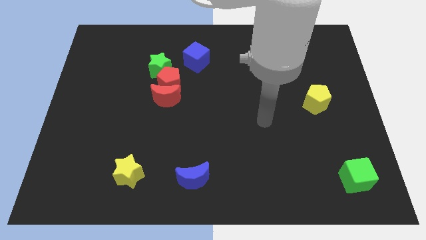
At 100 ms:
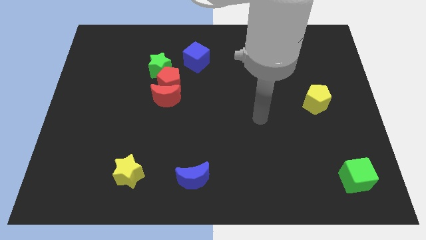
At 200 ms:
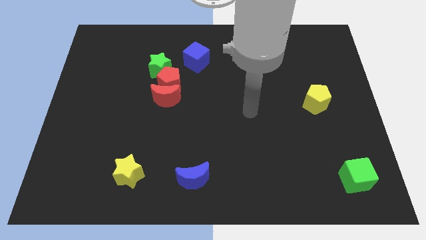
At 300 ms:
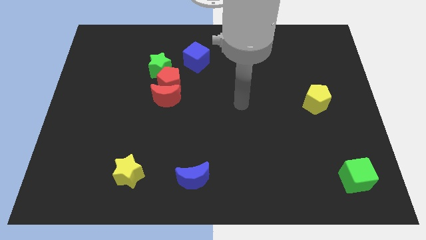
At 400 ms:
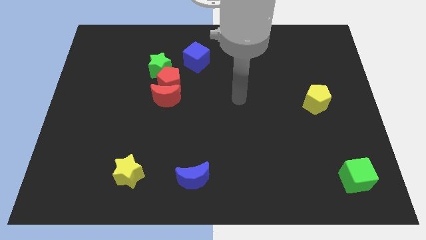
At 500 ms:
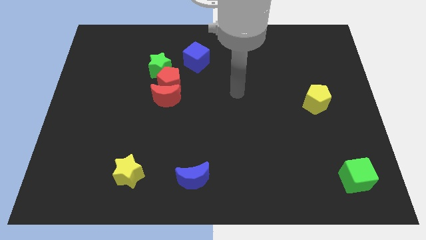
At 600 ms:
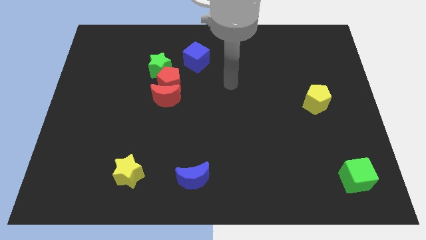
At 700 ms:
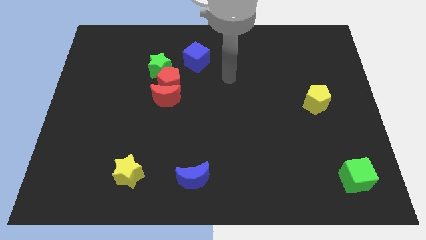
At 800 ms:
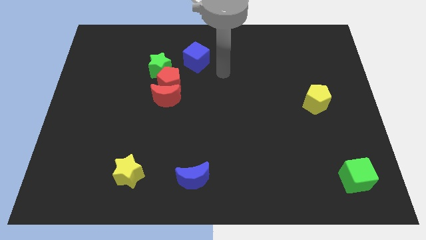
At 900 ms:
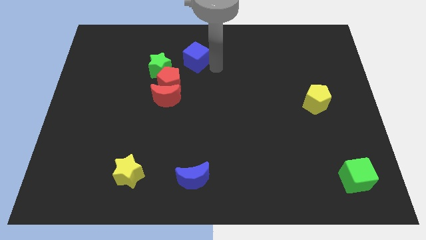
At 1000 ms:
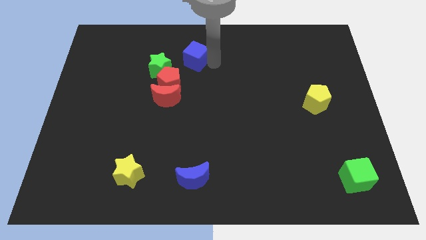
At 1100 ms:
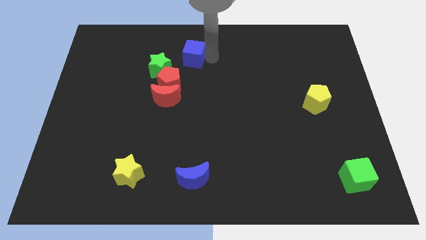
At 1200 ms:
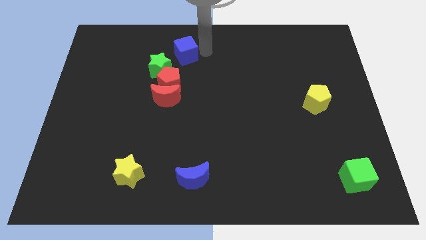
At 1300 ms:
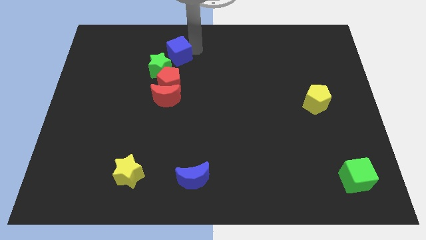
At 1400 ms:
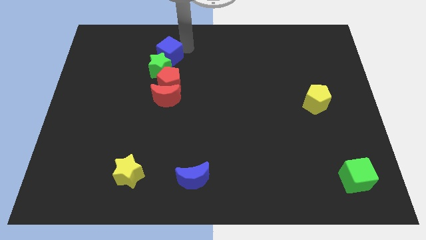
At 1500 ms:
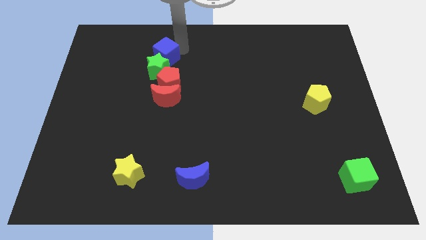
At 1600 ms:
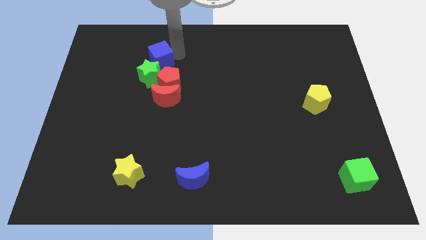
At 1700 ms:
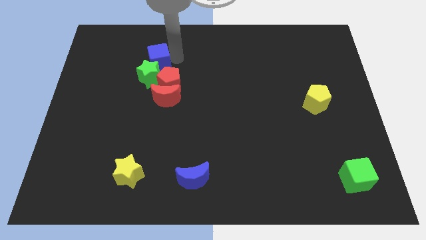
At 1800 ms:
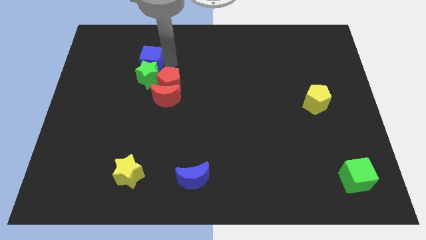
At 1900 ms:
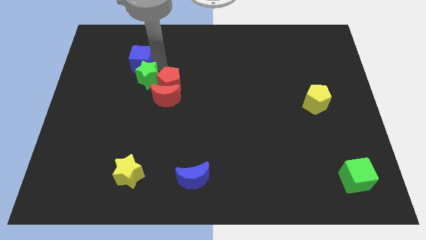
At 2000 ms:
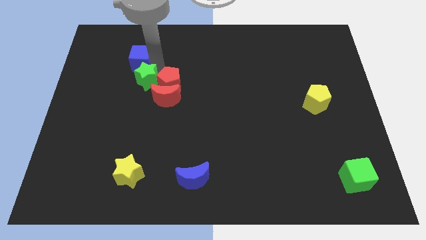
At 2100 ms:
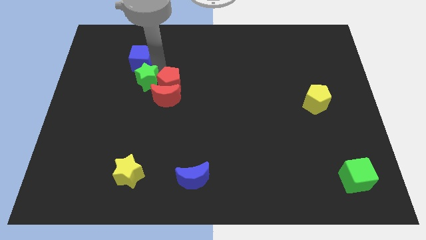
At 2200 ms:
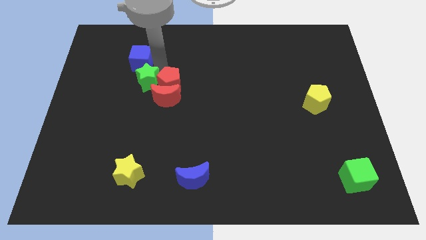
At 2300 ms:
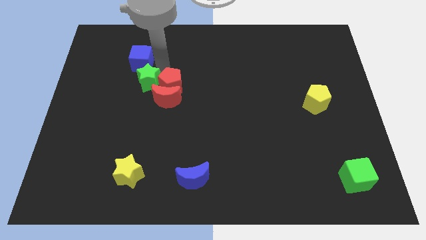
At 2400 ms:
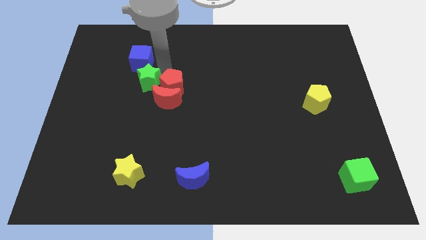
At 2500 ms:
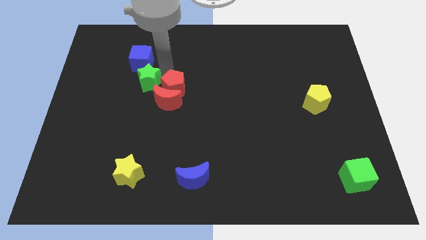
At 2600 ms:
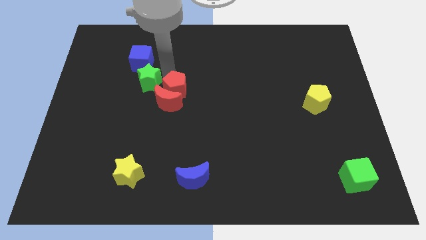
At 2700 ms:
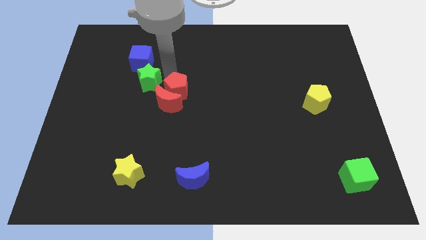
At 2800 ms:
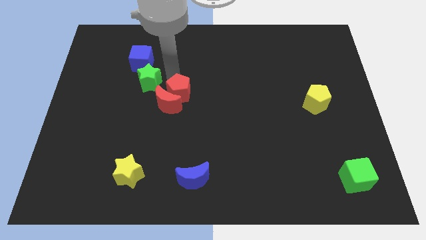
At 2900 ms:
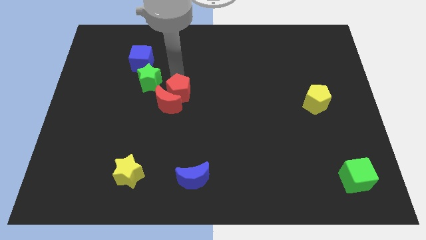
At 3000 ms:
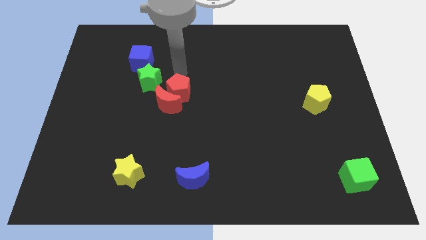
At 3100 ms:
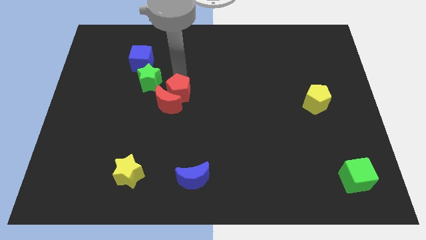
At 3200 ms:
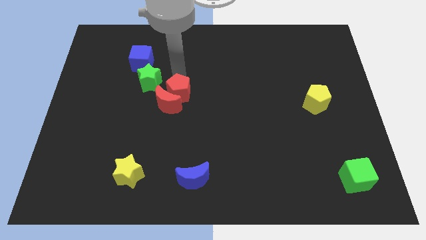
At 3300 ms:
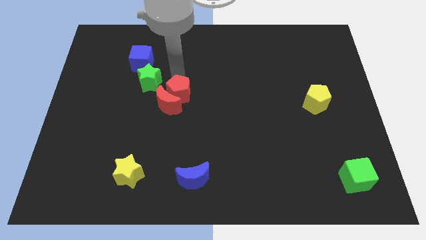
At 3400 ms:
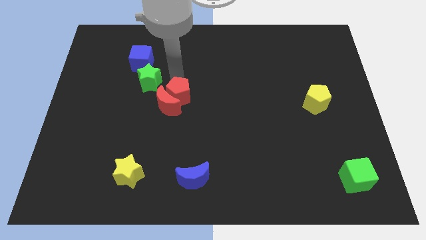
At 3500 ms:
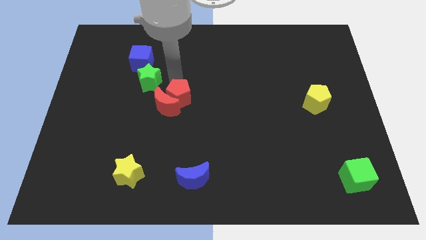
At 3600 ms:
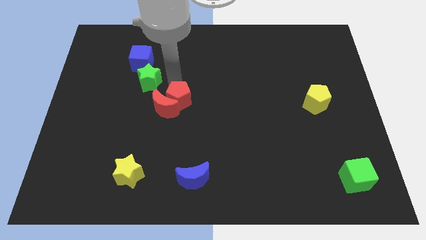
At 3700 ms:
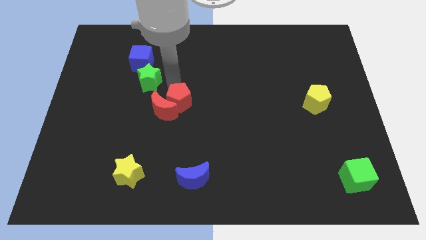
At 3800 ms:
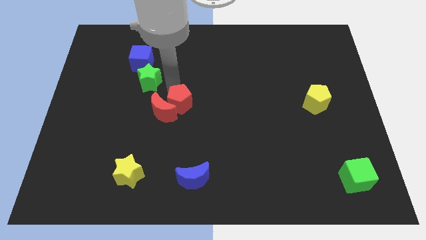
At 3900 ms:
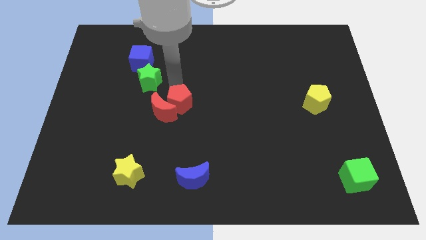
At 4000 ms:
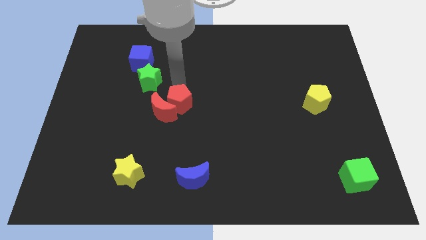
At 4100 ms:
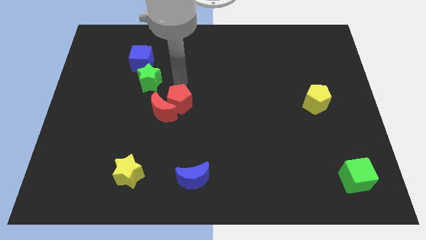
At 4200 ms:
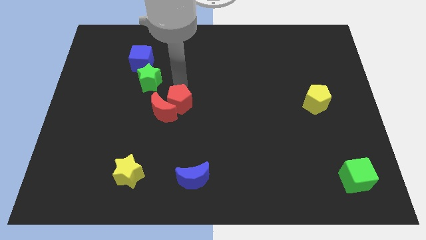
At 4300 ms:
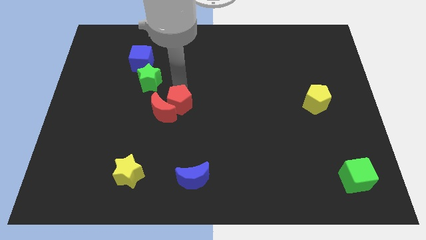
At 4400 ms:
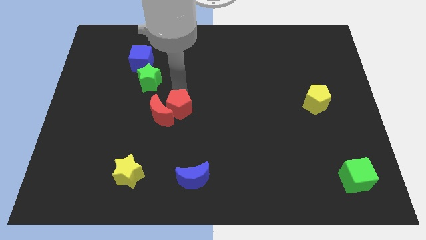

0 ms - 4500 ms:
pull the red pentagon apart from the group

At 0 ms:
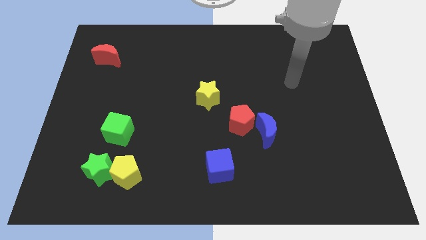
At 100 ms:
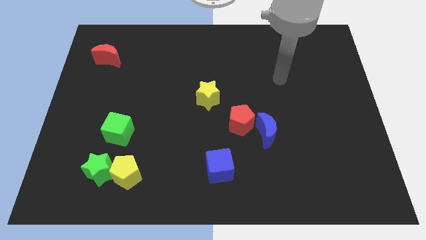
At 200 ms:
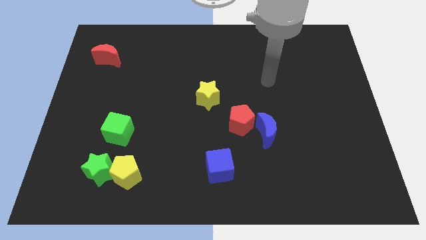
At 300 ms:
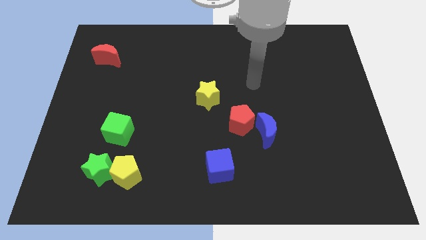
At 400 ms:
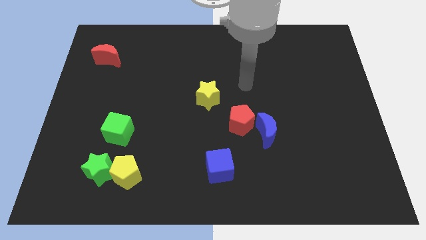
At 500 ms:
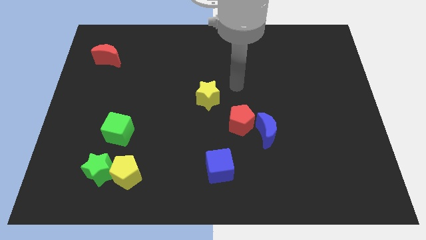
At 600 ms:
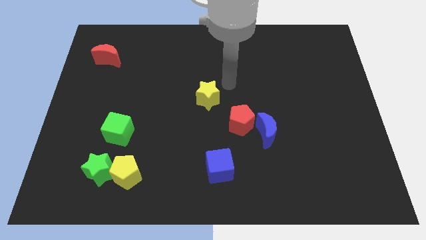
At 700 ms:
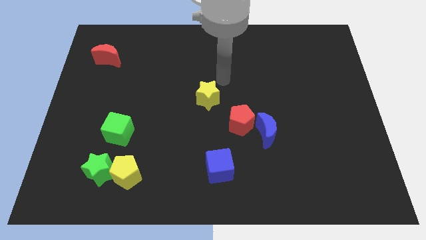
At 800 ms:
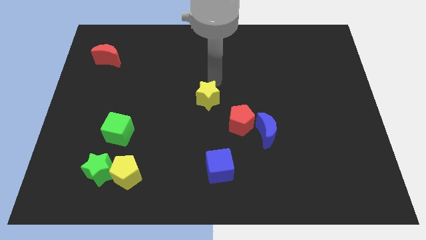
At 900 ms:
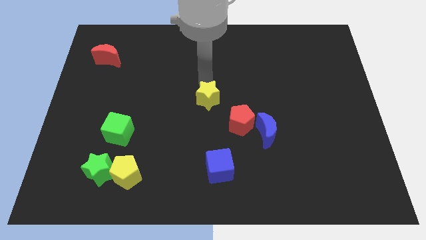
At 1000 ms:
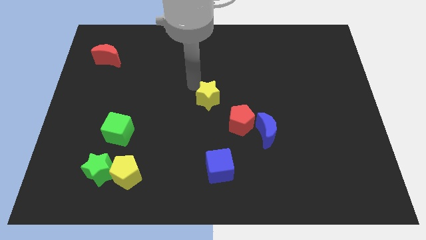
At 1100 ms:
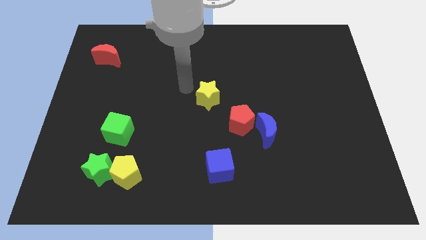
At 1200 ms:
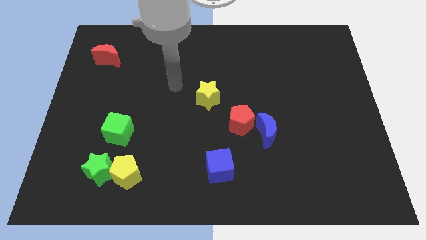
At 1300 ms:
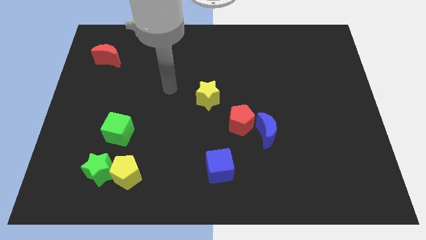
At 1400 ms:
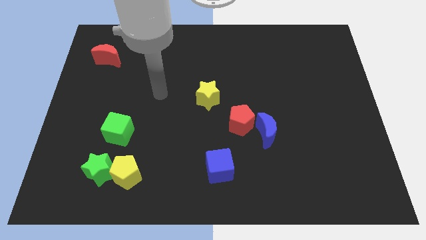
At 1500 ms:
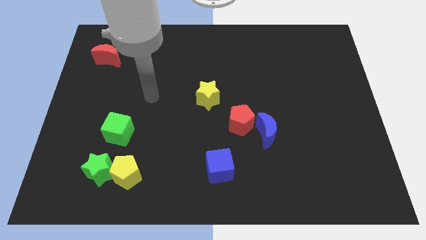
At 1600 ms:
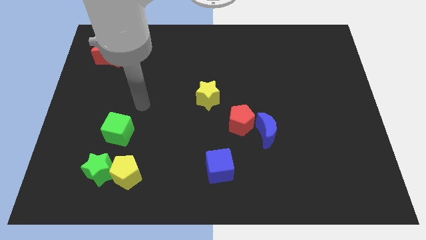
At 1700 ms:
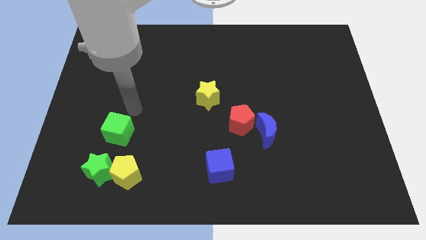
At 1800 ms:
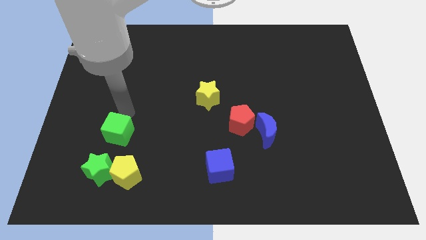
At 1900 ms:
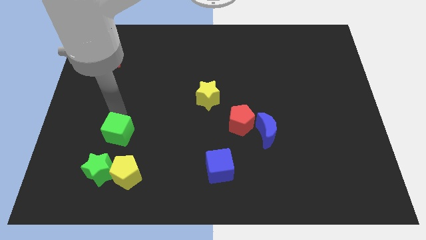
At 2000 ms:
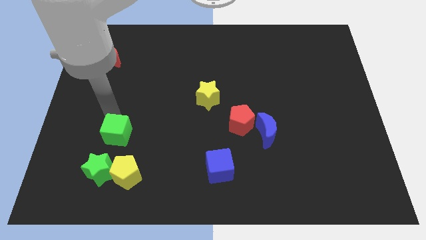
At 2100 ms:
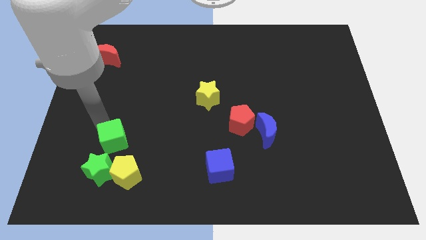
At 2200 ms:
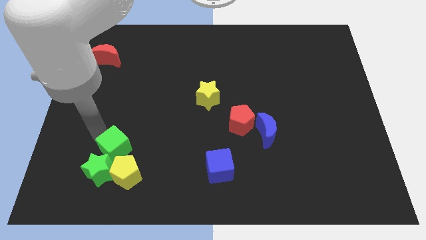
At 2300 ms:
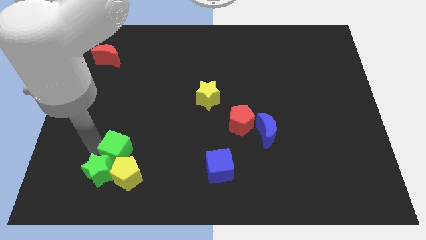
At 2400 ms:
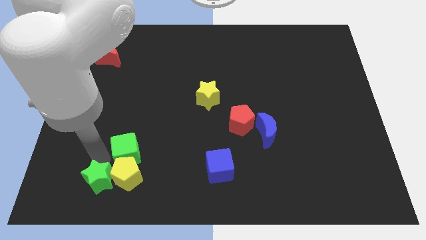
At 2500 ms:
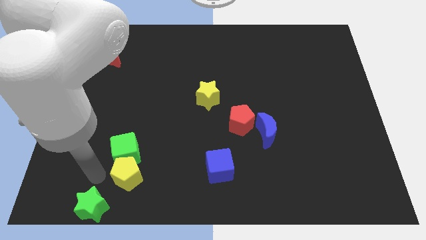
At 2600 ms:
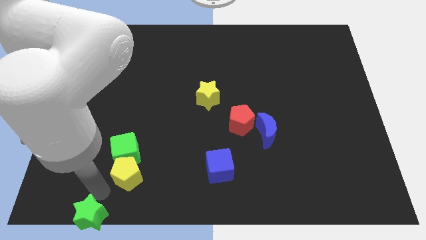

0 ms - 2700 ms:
pull the yellow pentagon apart from the green star

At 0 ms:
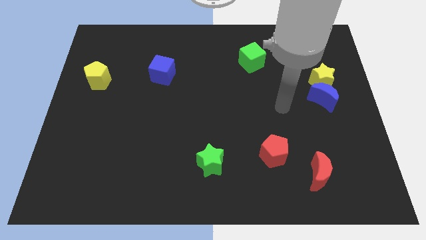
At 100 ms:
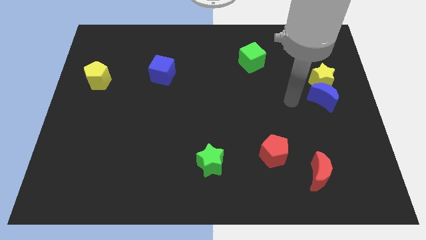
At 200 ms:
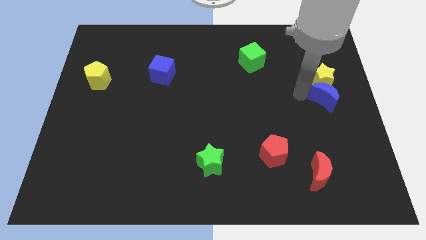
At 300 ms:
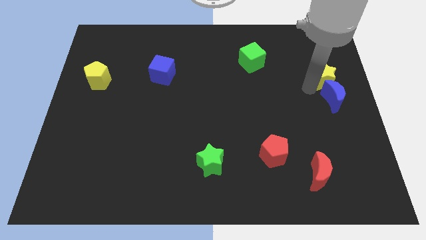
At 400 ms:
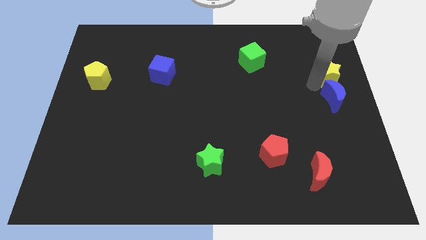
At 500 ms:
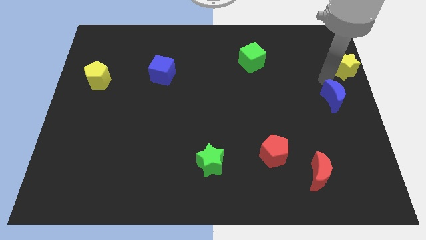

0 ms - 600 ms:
move the blue moon away from the yellow star

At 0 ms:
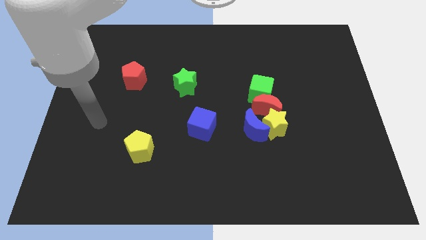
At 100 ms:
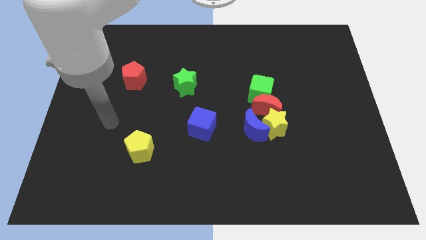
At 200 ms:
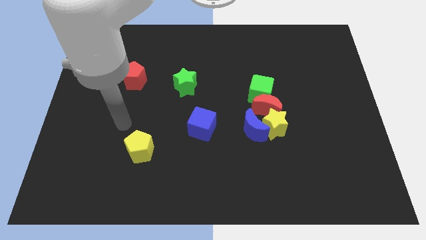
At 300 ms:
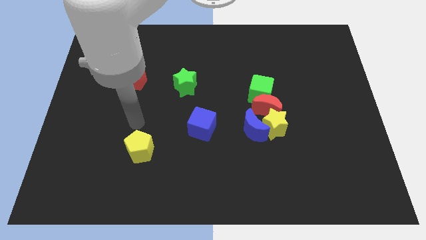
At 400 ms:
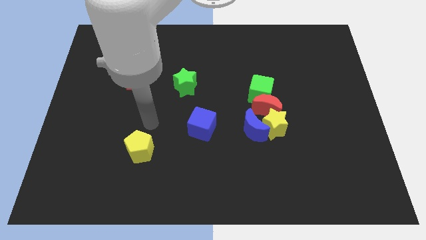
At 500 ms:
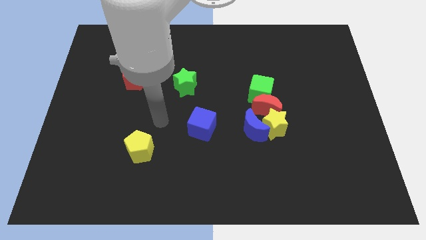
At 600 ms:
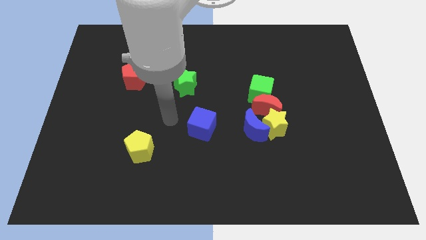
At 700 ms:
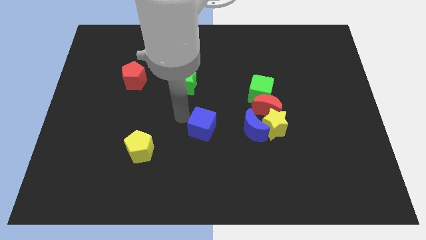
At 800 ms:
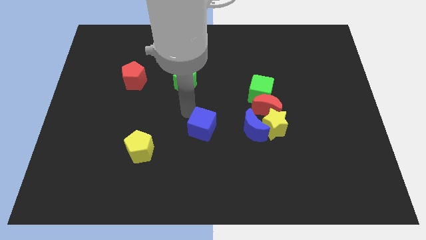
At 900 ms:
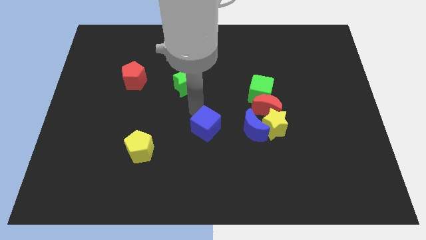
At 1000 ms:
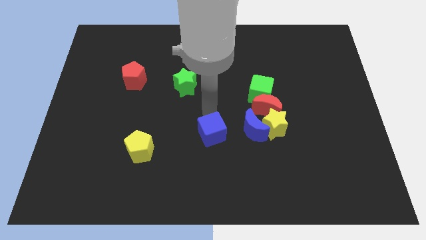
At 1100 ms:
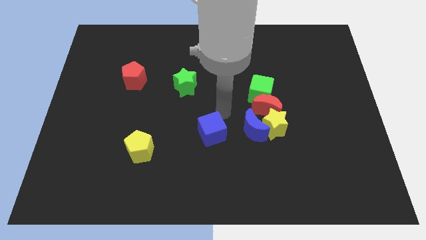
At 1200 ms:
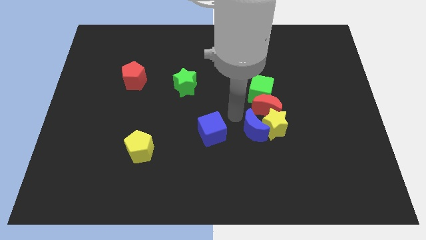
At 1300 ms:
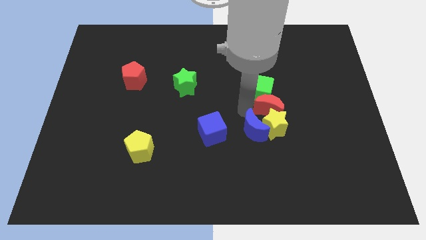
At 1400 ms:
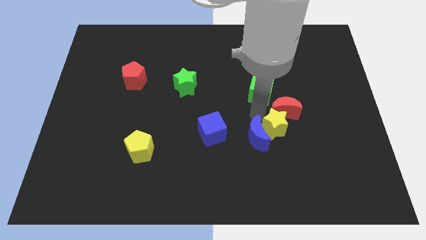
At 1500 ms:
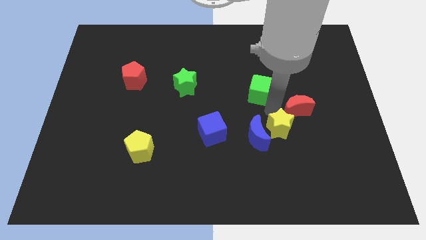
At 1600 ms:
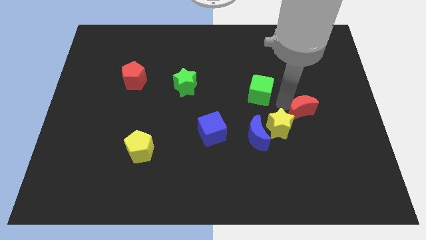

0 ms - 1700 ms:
separate the green cube from the red moon

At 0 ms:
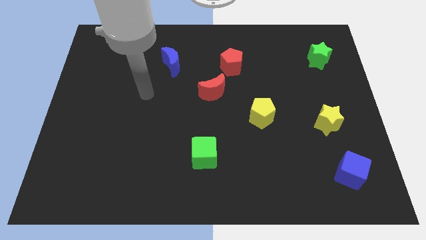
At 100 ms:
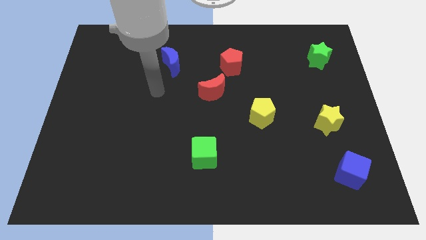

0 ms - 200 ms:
pull the red moon apart from the red pentagon
